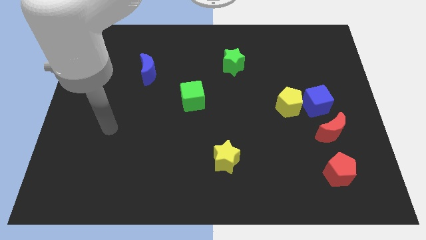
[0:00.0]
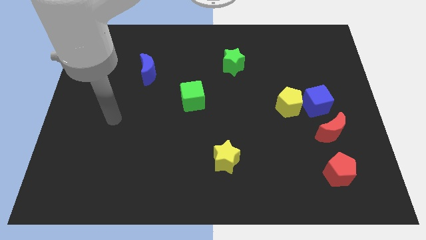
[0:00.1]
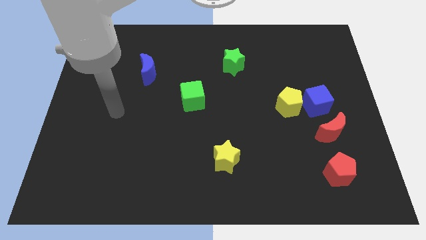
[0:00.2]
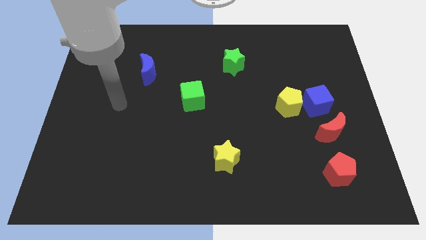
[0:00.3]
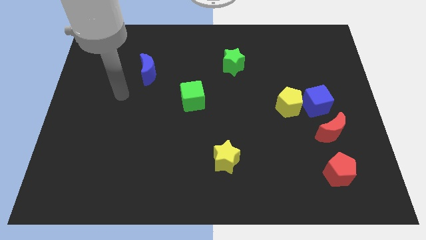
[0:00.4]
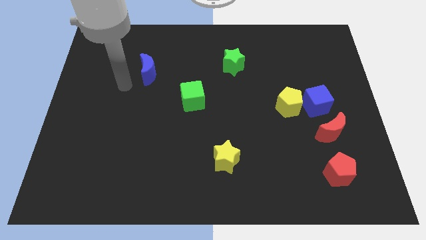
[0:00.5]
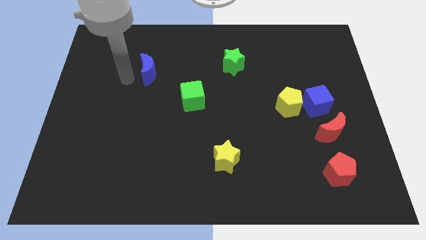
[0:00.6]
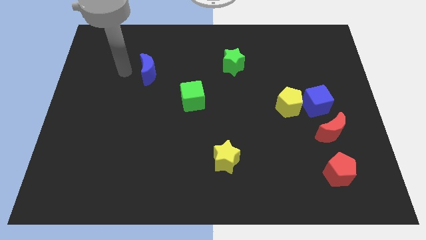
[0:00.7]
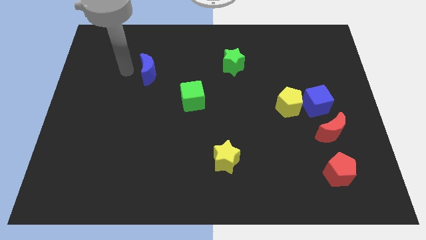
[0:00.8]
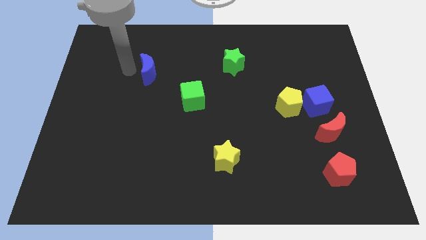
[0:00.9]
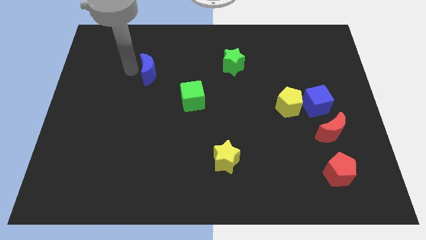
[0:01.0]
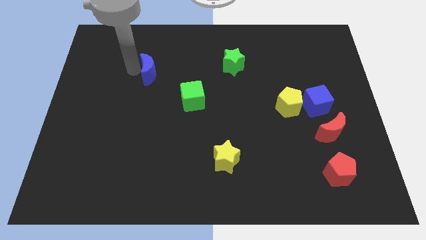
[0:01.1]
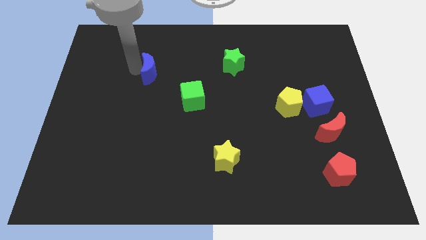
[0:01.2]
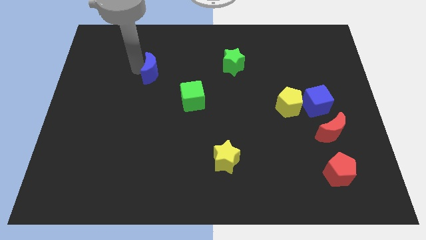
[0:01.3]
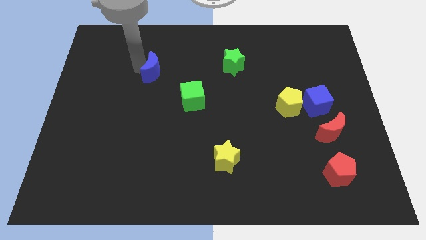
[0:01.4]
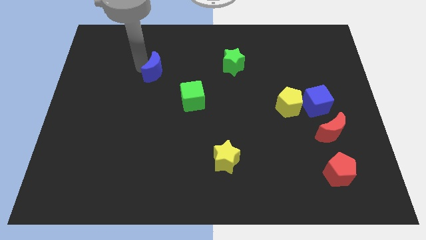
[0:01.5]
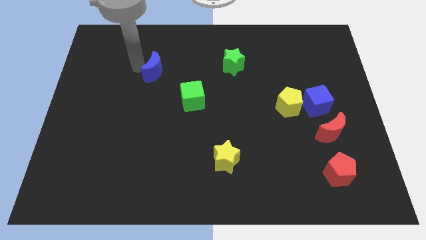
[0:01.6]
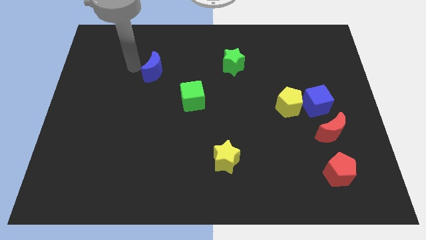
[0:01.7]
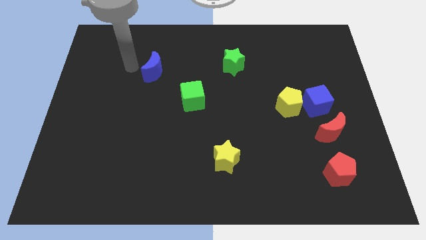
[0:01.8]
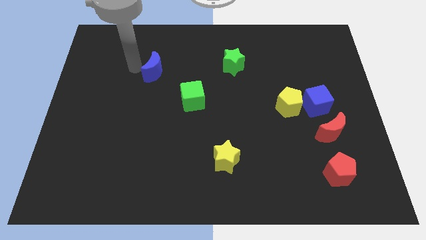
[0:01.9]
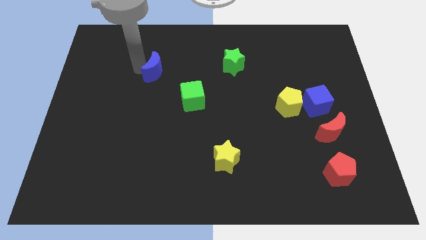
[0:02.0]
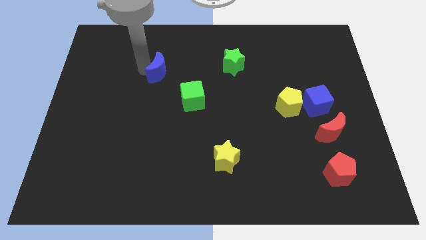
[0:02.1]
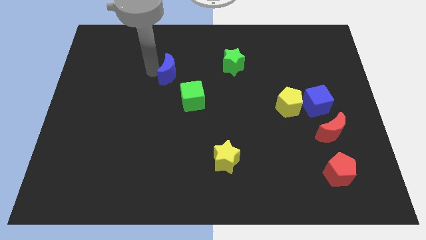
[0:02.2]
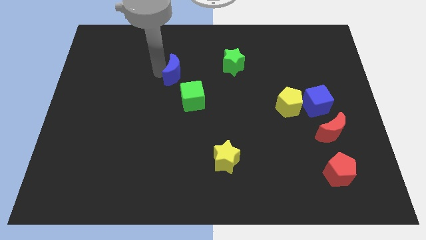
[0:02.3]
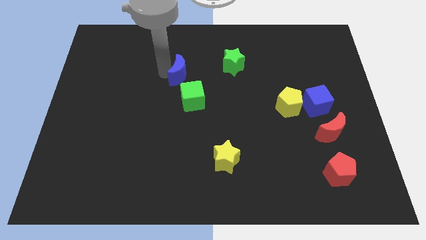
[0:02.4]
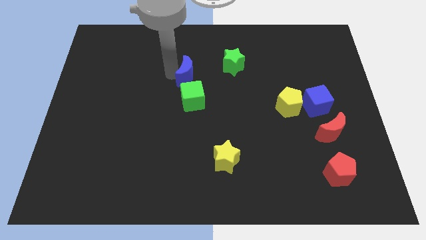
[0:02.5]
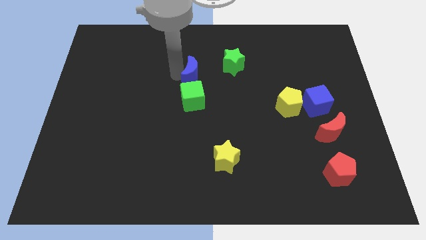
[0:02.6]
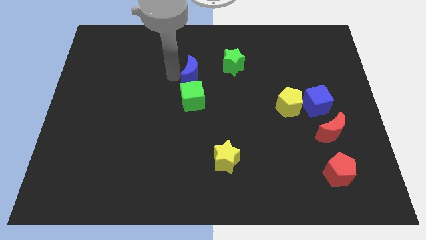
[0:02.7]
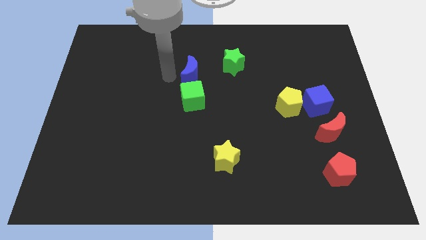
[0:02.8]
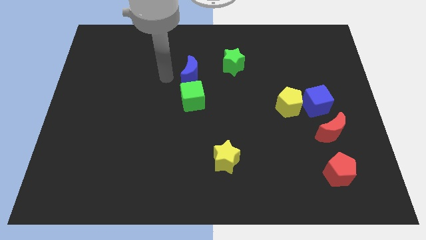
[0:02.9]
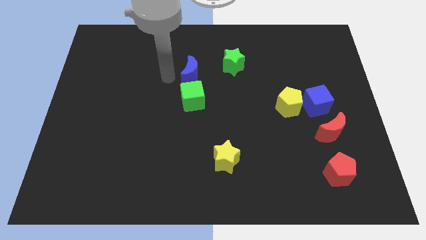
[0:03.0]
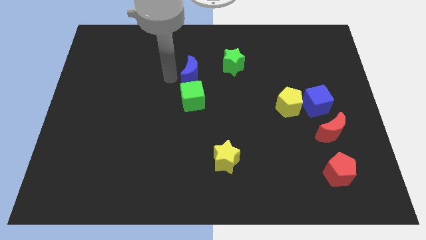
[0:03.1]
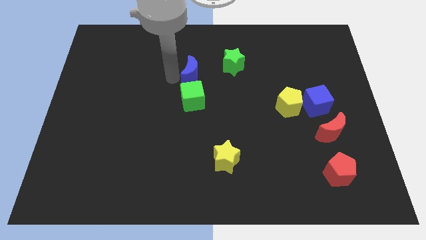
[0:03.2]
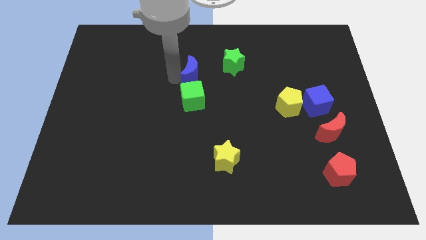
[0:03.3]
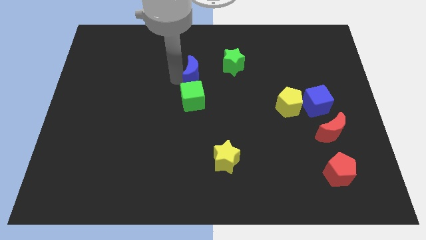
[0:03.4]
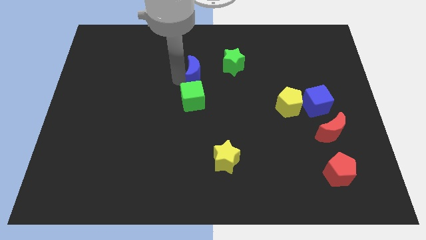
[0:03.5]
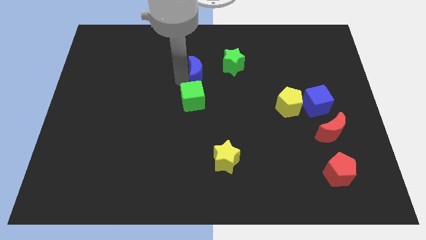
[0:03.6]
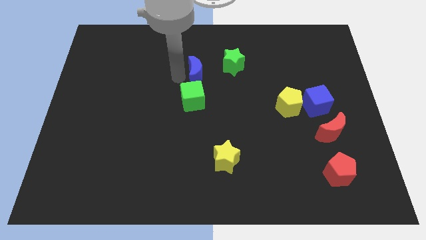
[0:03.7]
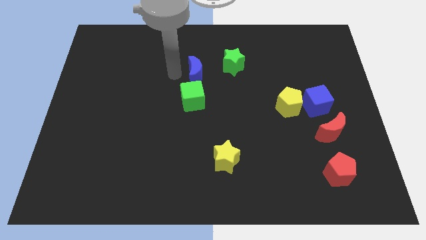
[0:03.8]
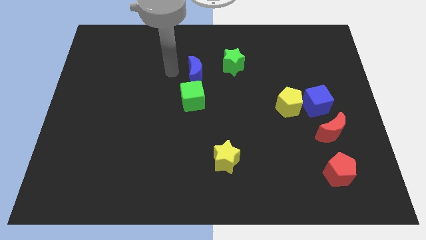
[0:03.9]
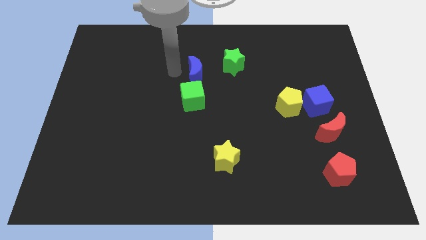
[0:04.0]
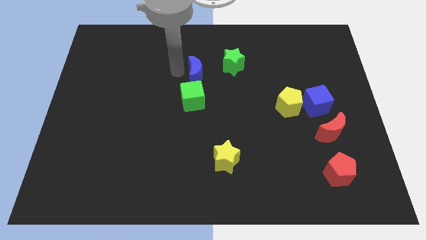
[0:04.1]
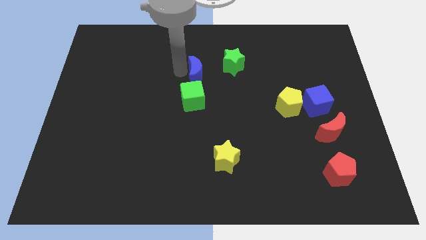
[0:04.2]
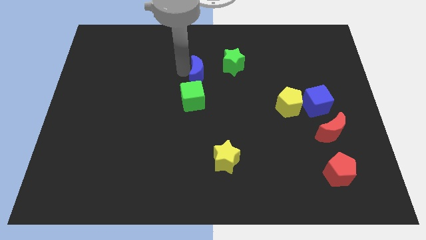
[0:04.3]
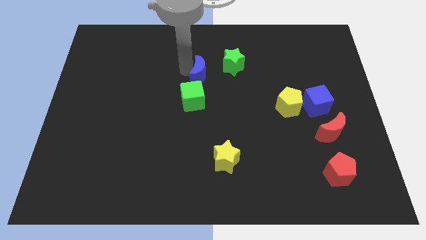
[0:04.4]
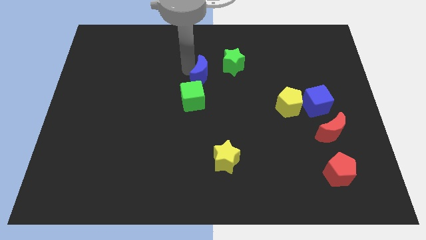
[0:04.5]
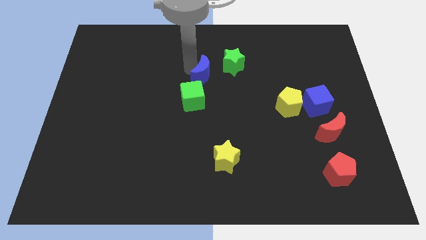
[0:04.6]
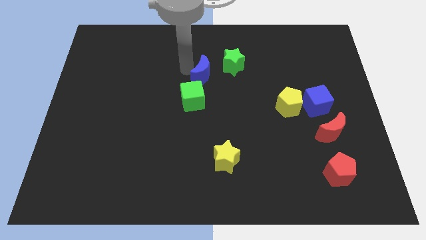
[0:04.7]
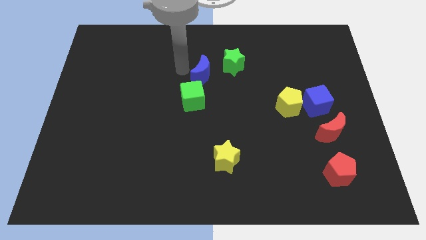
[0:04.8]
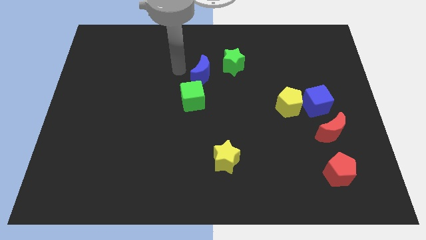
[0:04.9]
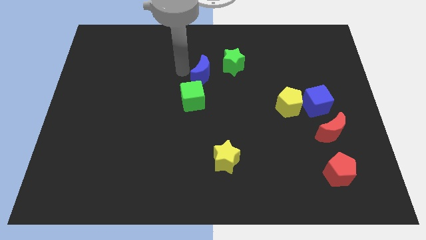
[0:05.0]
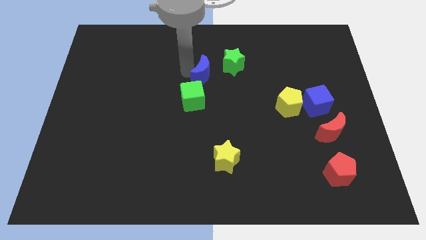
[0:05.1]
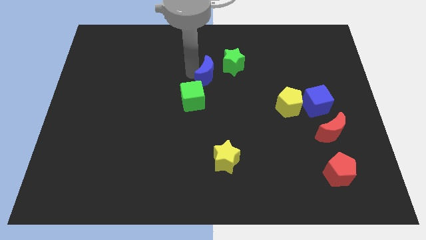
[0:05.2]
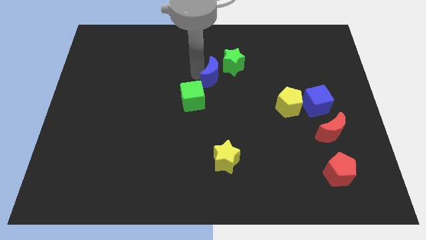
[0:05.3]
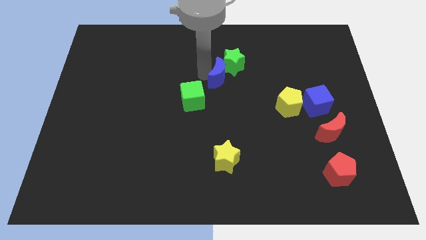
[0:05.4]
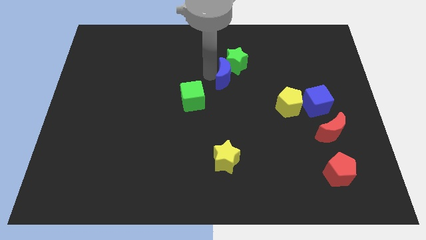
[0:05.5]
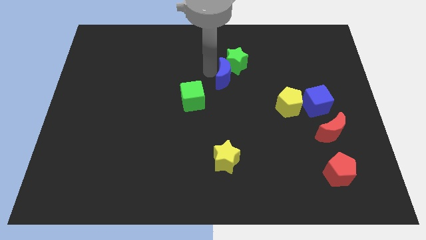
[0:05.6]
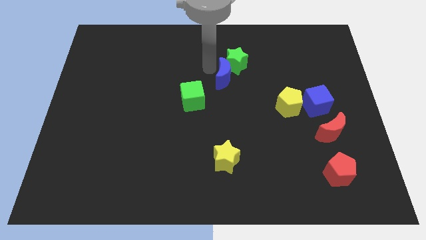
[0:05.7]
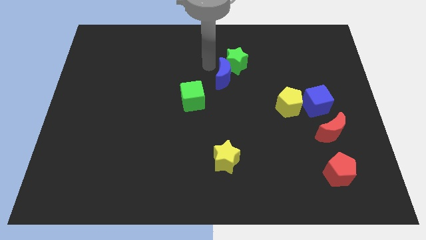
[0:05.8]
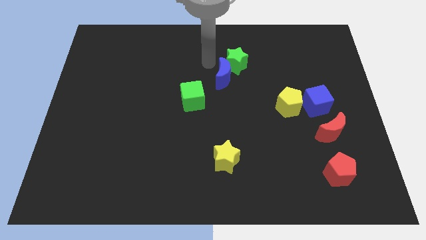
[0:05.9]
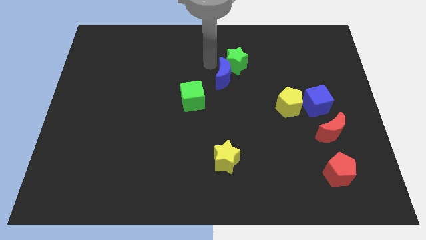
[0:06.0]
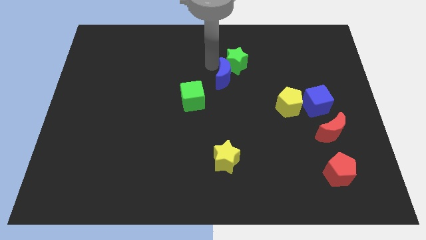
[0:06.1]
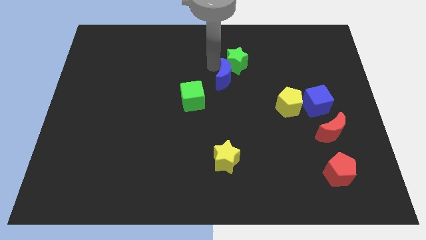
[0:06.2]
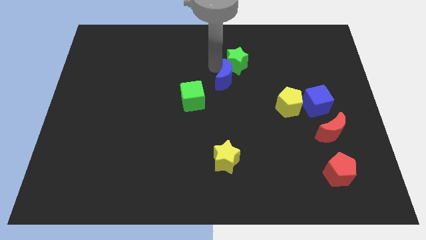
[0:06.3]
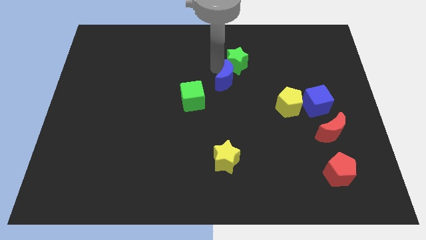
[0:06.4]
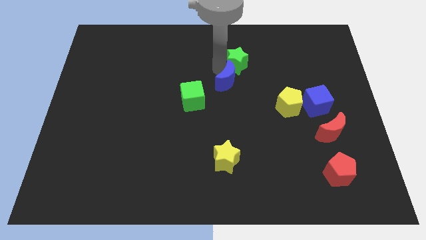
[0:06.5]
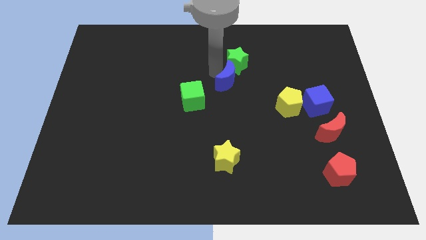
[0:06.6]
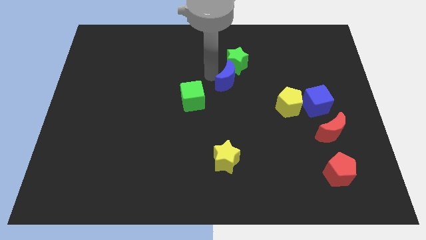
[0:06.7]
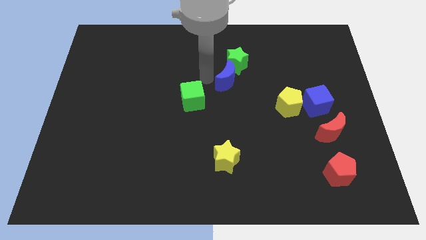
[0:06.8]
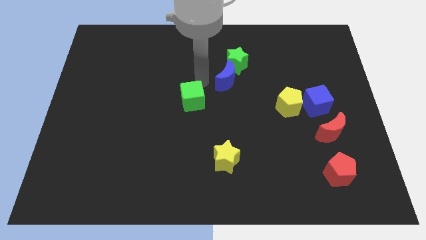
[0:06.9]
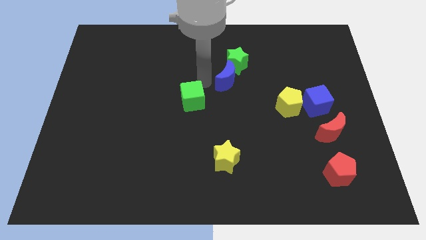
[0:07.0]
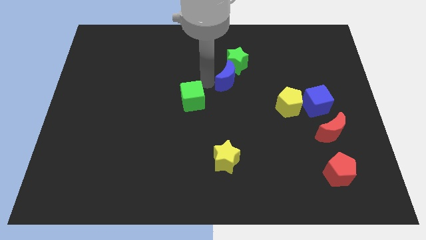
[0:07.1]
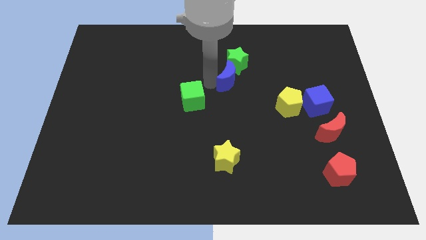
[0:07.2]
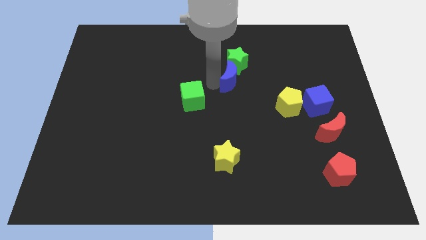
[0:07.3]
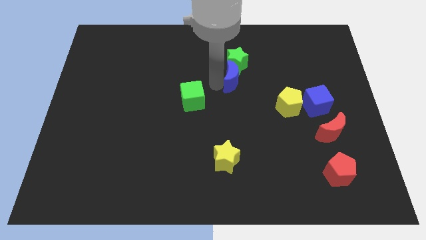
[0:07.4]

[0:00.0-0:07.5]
put the blue moon to the bottom right side of the green star
